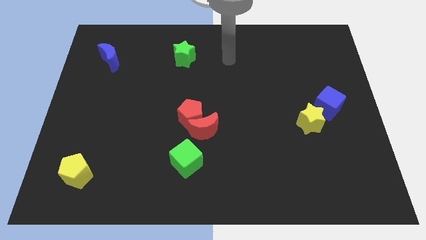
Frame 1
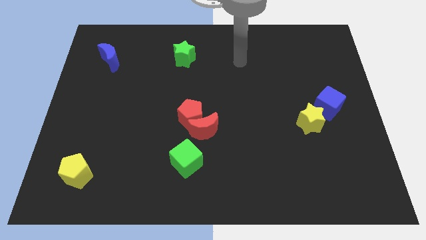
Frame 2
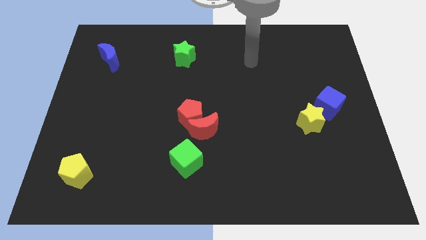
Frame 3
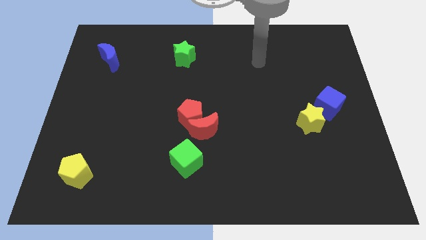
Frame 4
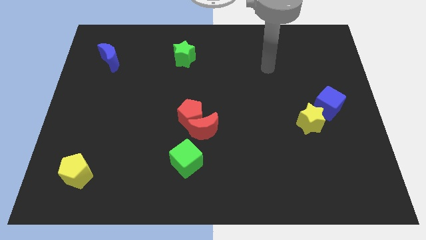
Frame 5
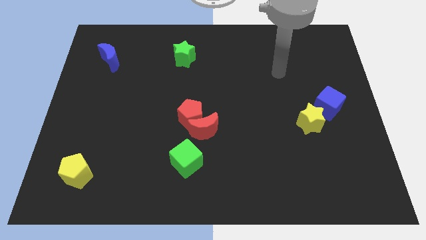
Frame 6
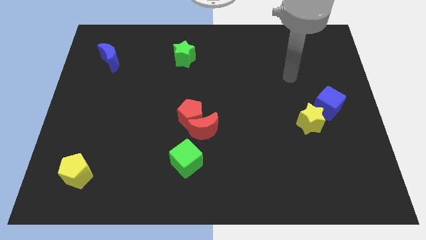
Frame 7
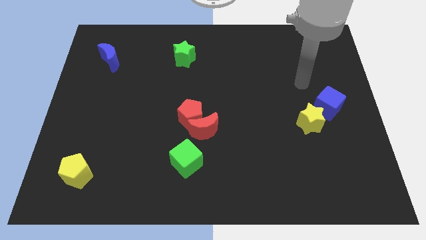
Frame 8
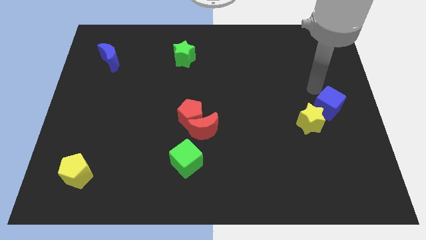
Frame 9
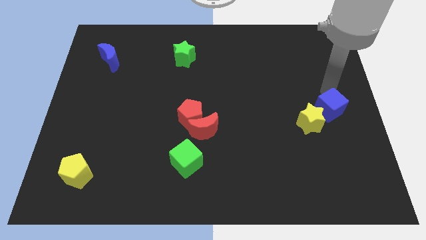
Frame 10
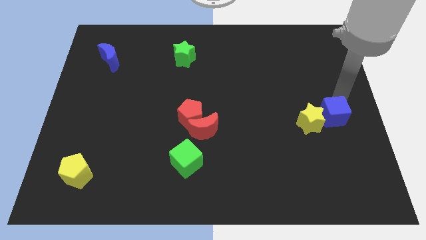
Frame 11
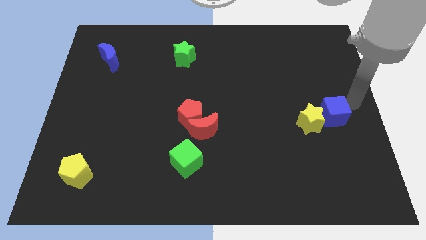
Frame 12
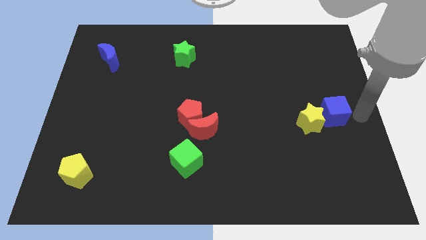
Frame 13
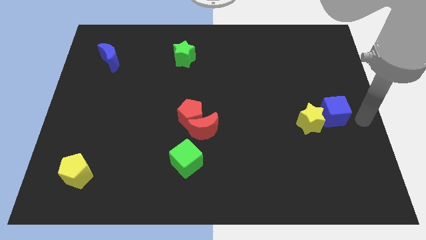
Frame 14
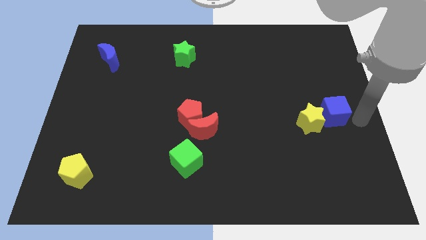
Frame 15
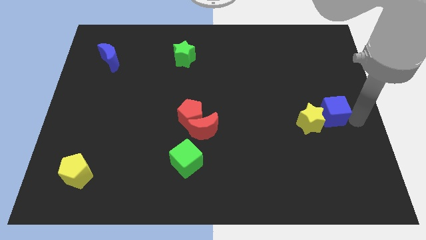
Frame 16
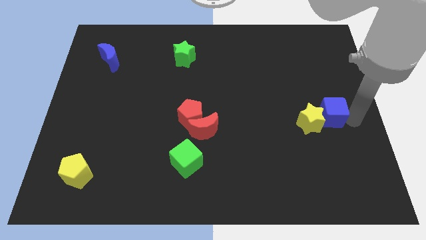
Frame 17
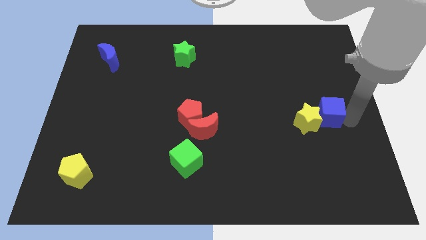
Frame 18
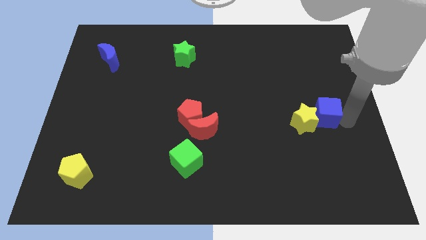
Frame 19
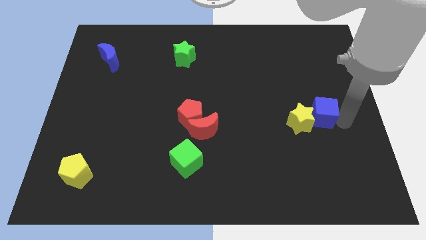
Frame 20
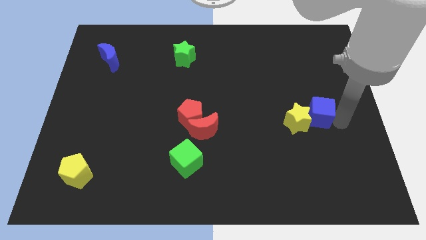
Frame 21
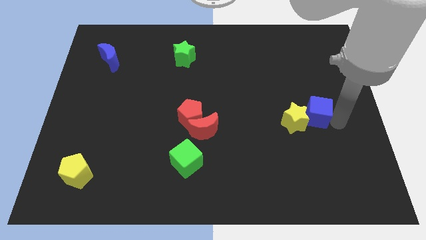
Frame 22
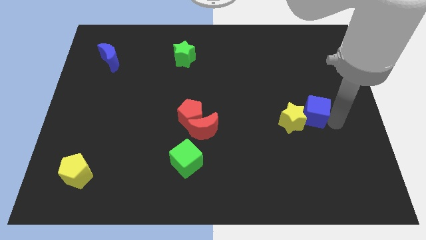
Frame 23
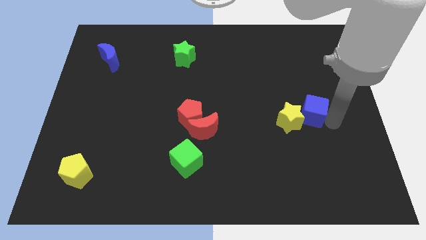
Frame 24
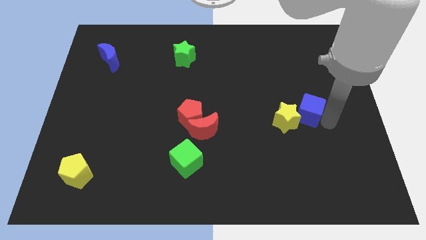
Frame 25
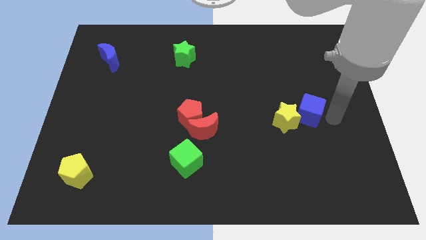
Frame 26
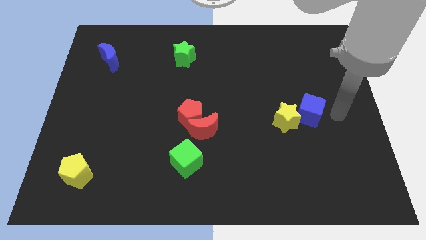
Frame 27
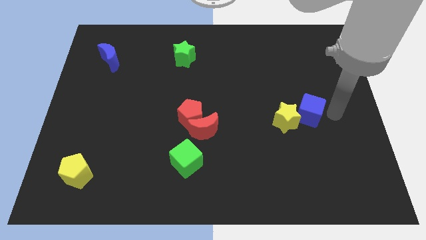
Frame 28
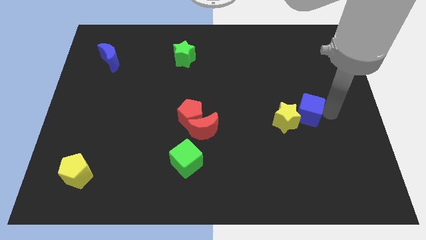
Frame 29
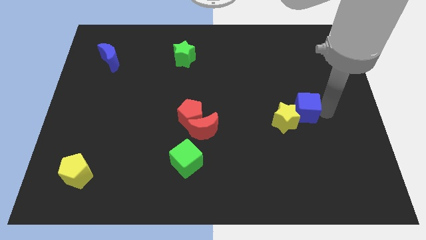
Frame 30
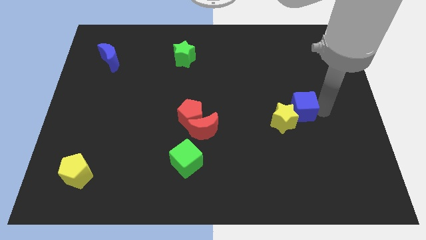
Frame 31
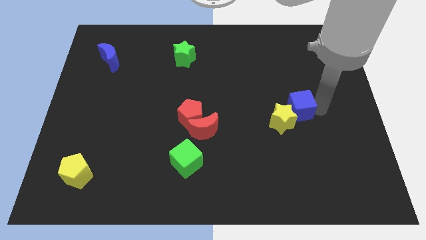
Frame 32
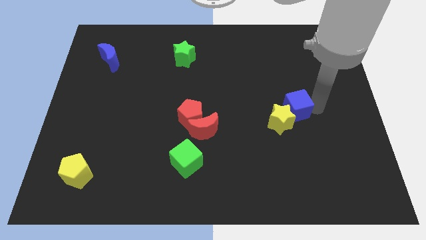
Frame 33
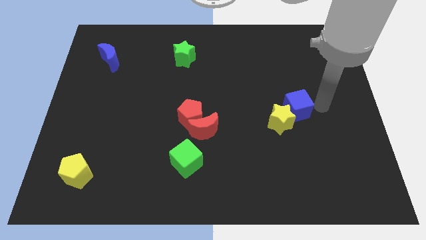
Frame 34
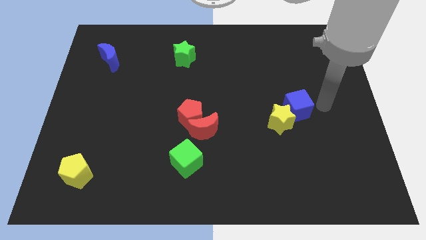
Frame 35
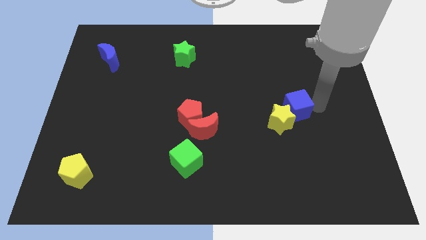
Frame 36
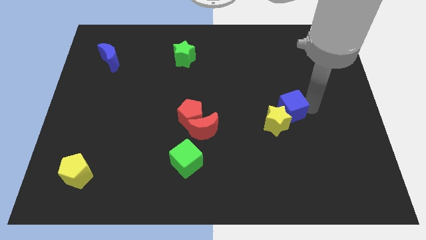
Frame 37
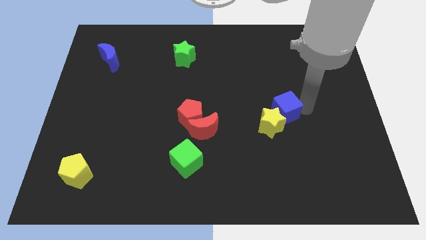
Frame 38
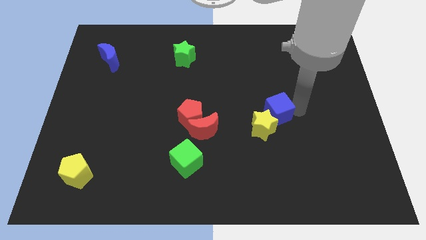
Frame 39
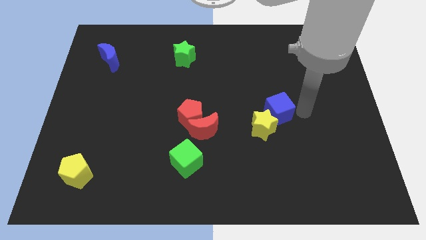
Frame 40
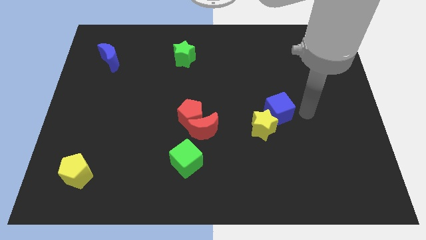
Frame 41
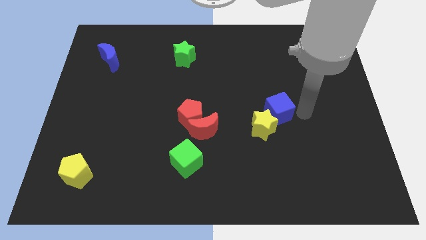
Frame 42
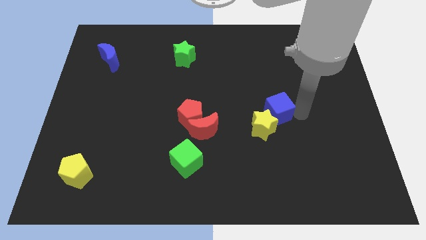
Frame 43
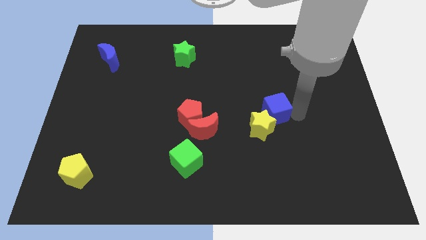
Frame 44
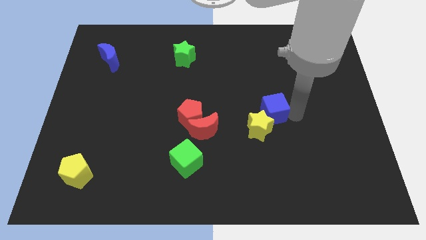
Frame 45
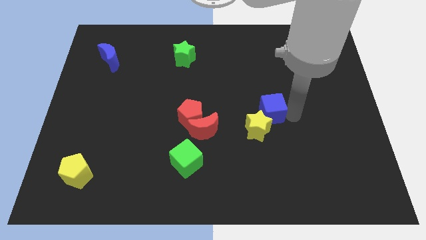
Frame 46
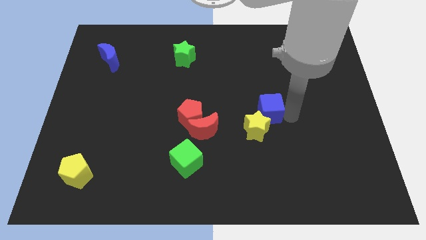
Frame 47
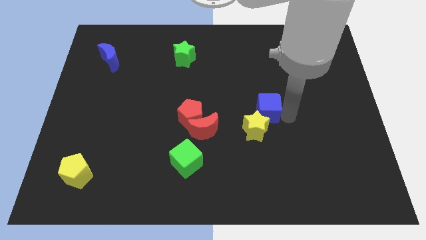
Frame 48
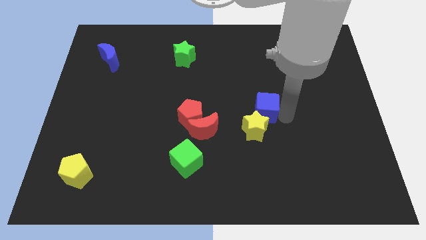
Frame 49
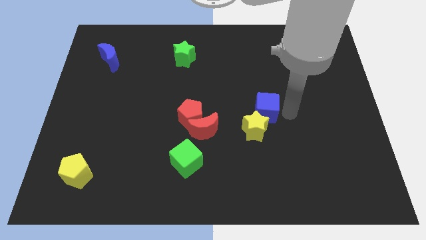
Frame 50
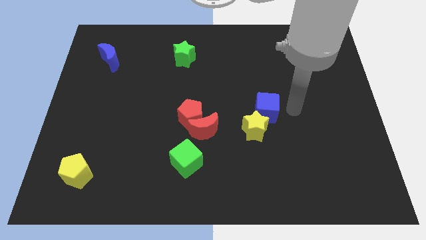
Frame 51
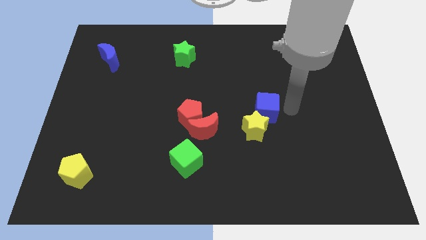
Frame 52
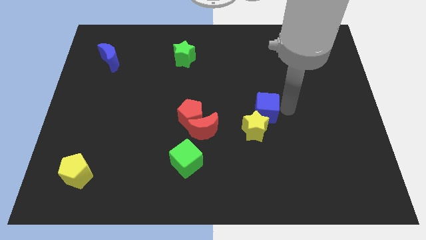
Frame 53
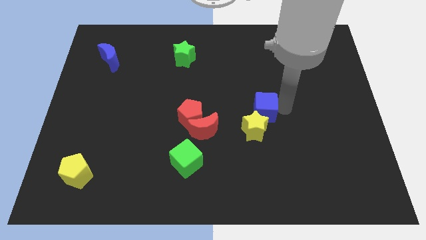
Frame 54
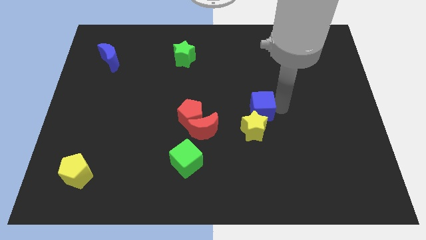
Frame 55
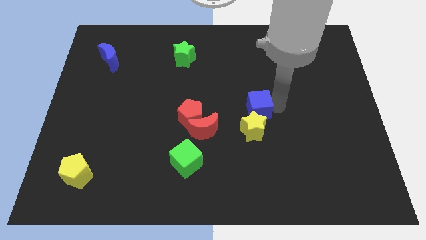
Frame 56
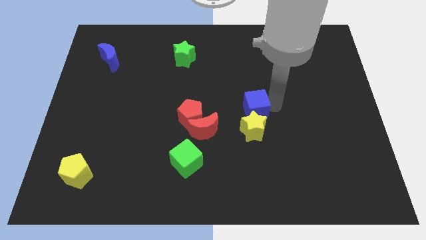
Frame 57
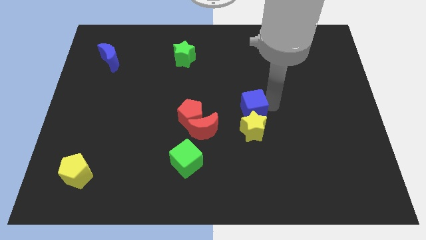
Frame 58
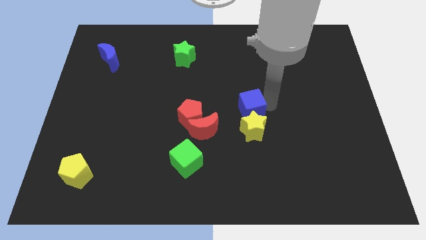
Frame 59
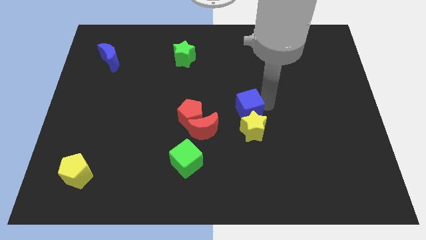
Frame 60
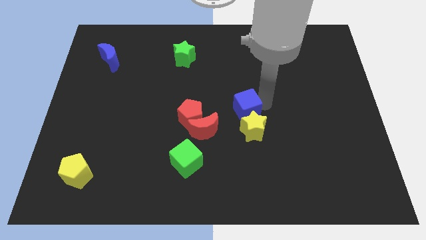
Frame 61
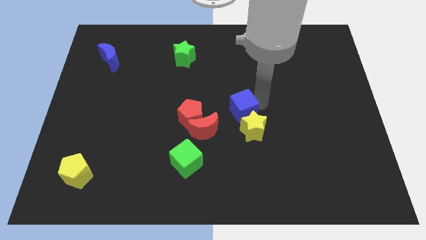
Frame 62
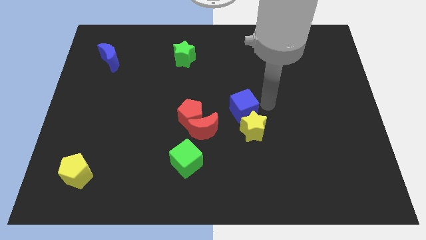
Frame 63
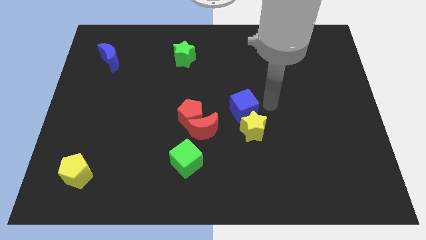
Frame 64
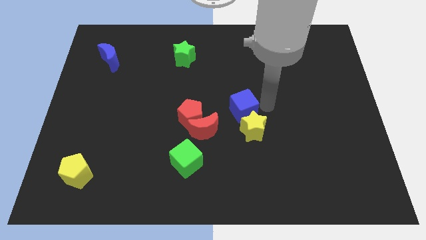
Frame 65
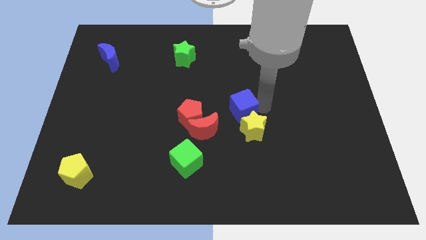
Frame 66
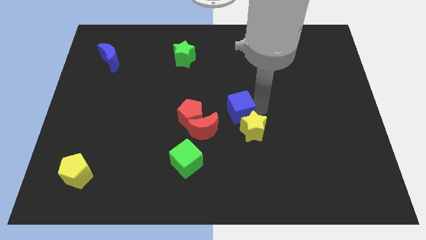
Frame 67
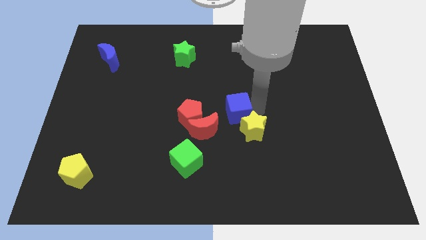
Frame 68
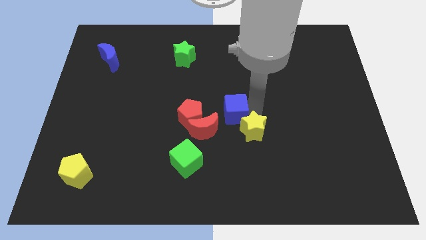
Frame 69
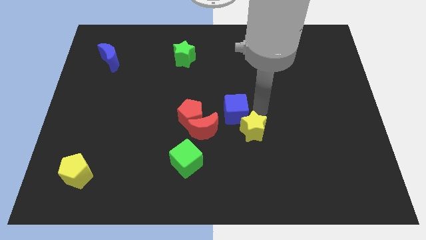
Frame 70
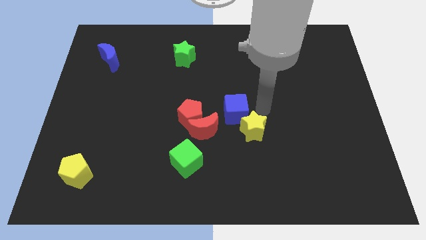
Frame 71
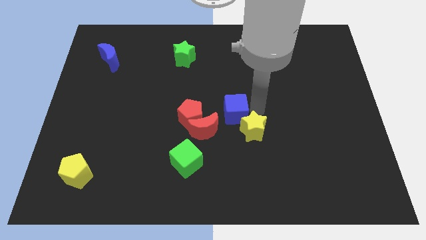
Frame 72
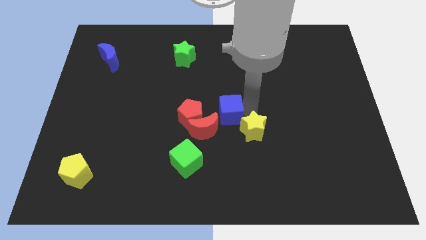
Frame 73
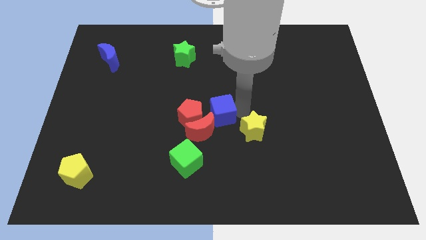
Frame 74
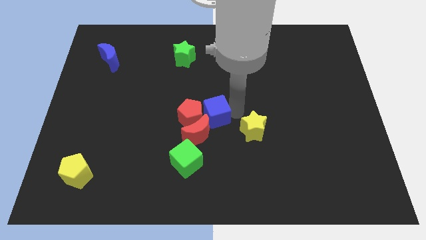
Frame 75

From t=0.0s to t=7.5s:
put the blue cube next to the red pentagon
